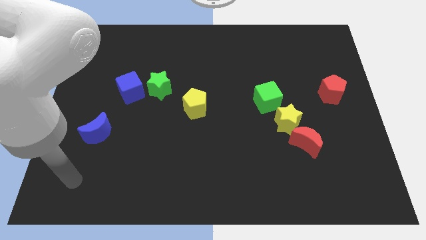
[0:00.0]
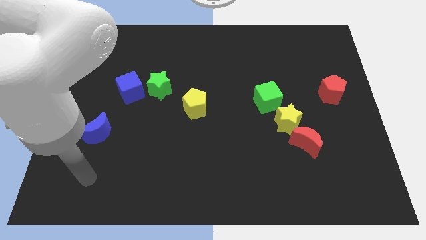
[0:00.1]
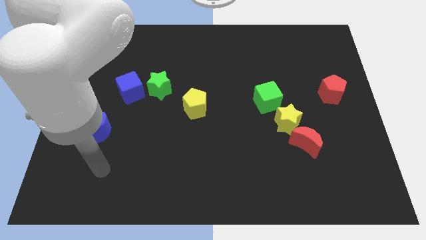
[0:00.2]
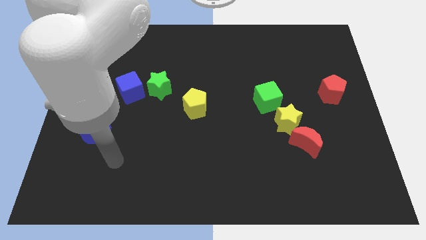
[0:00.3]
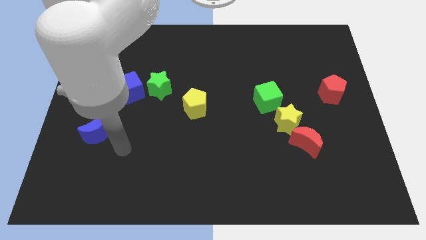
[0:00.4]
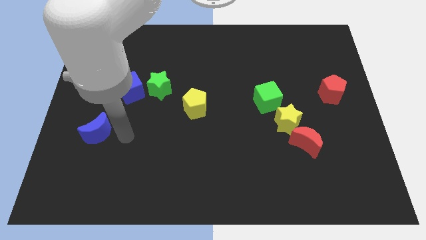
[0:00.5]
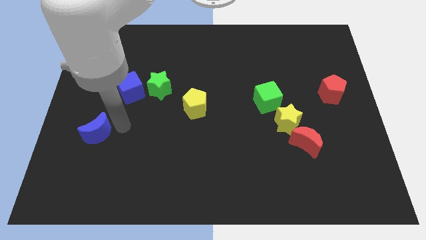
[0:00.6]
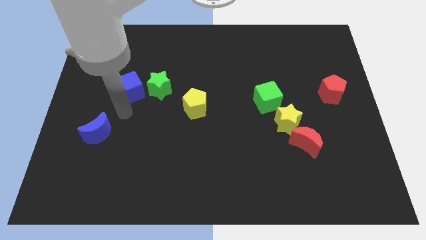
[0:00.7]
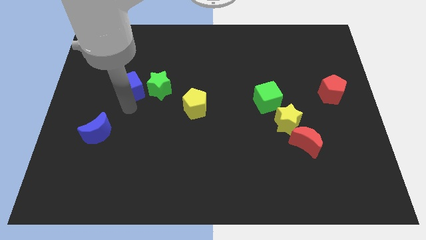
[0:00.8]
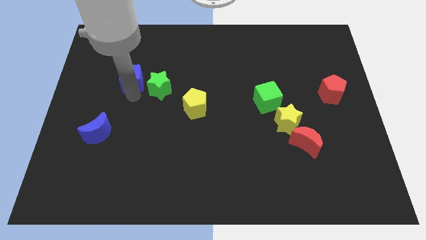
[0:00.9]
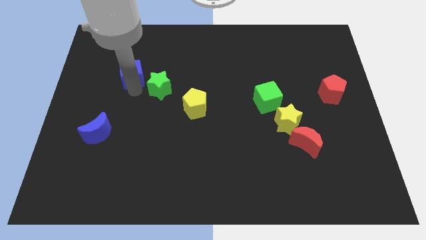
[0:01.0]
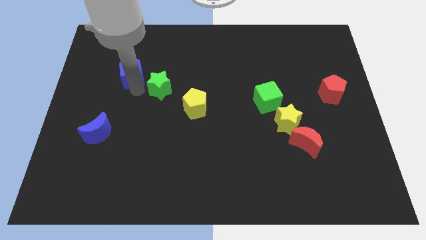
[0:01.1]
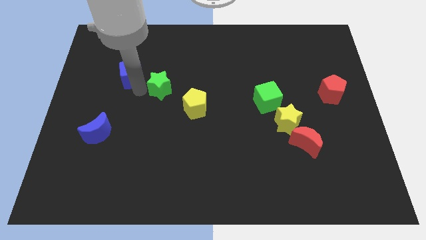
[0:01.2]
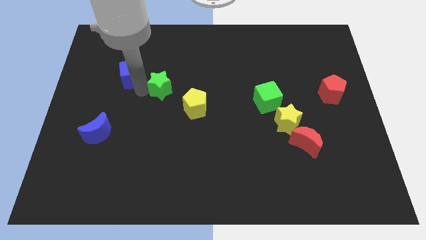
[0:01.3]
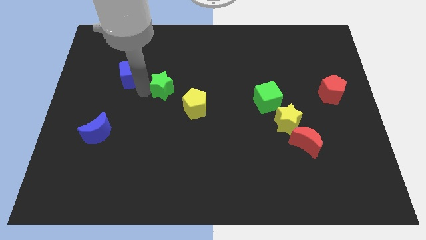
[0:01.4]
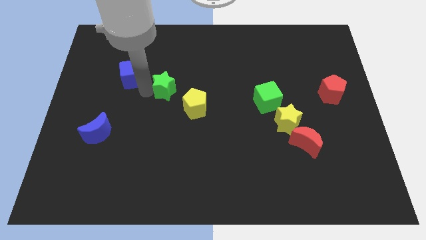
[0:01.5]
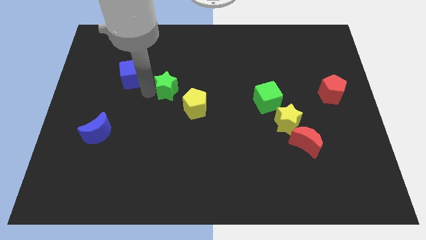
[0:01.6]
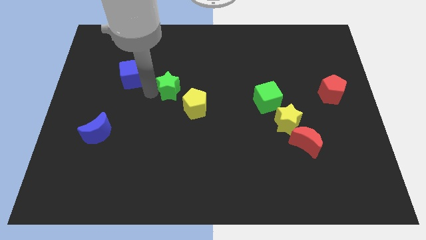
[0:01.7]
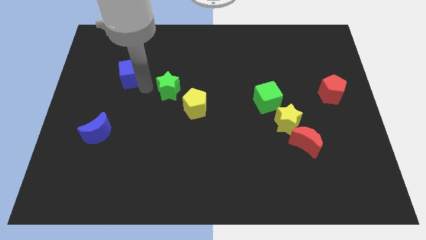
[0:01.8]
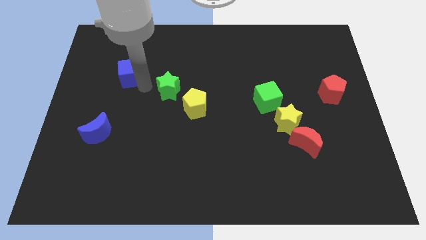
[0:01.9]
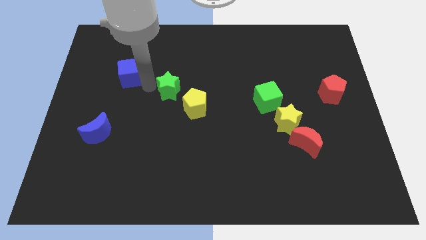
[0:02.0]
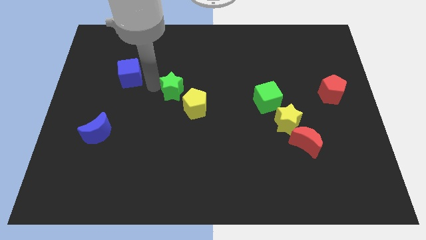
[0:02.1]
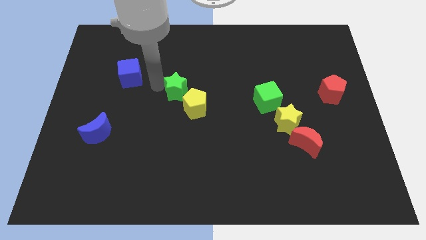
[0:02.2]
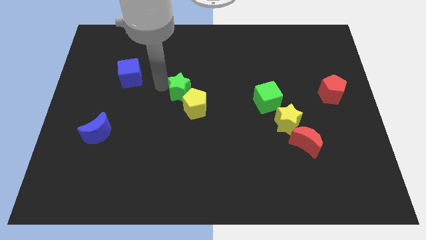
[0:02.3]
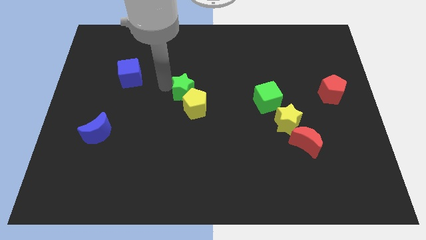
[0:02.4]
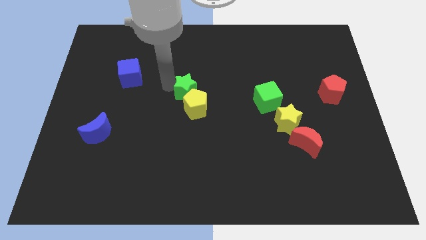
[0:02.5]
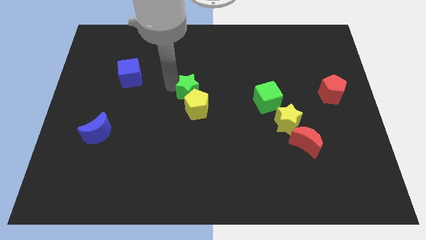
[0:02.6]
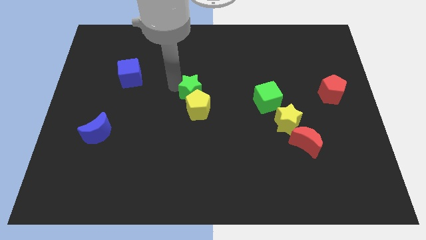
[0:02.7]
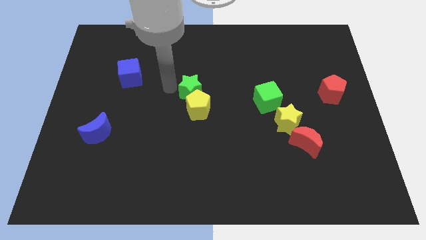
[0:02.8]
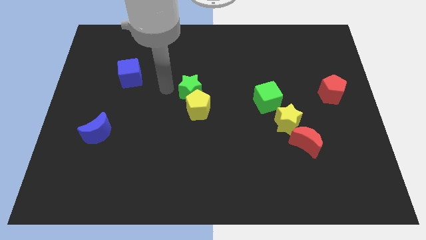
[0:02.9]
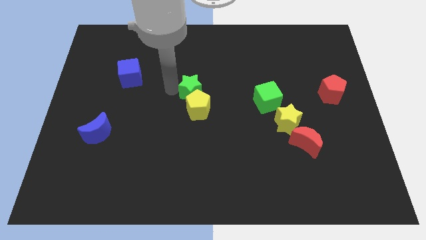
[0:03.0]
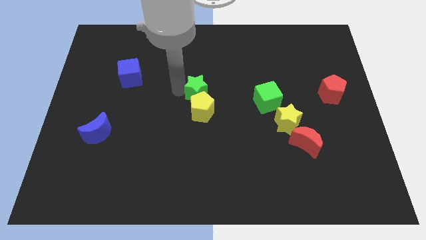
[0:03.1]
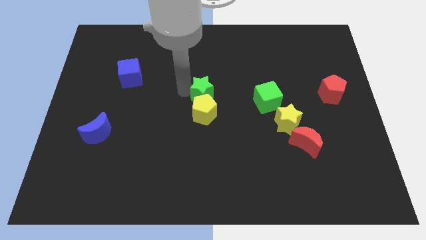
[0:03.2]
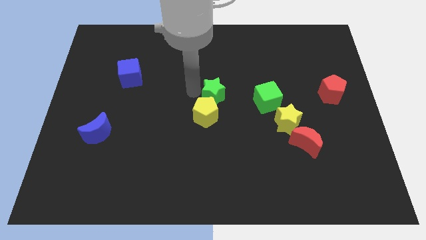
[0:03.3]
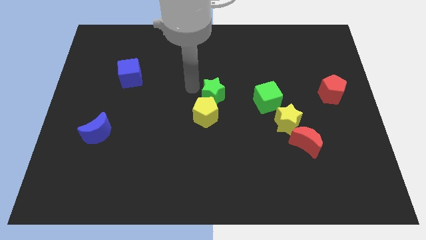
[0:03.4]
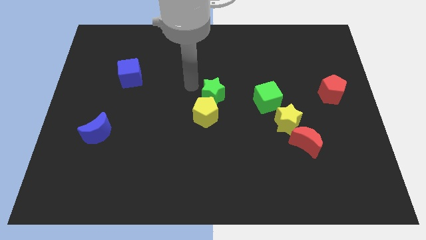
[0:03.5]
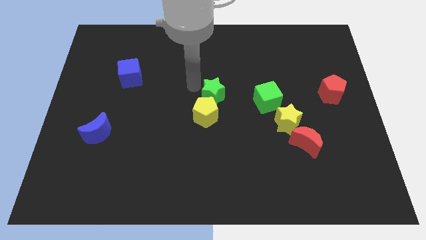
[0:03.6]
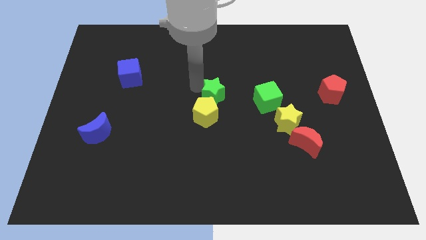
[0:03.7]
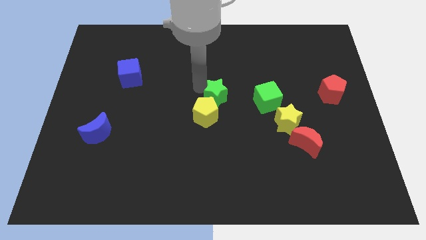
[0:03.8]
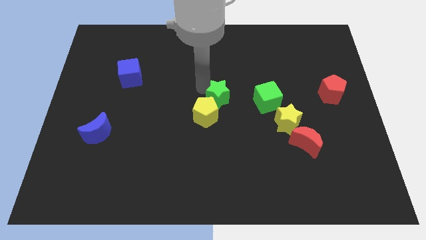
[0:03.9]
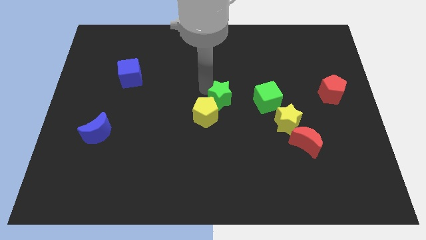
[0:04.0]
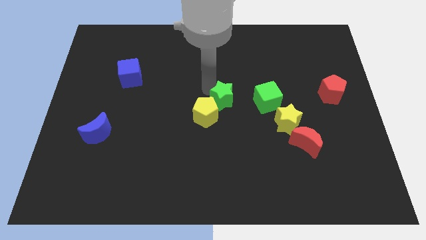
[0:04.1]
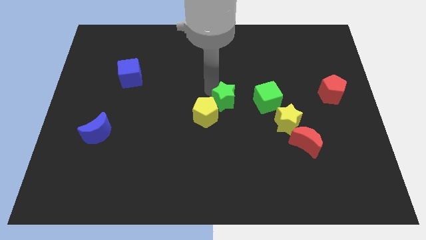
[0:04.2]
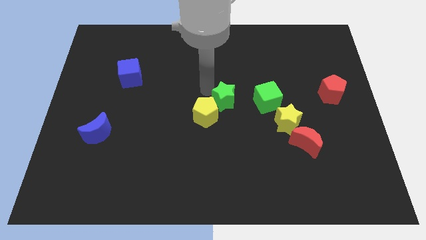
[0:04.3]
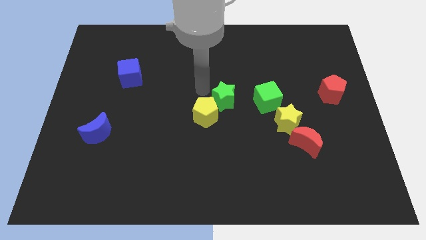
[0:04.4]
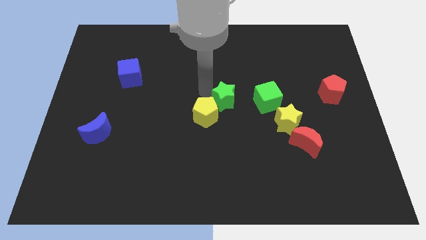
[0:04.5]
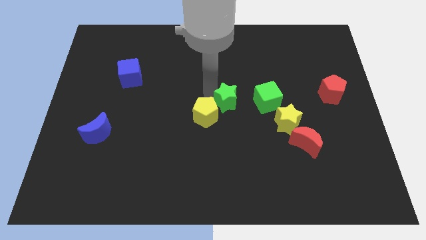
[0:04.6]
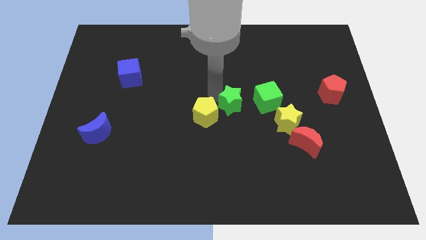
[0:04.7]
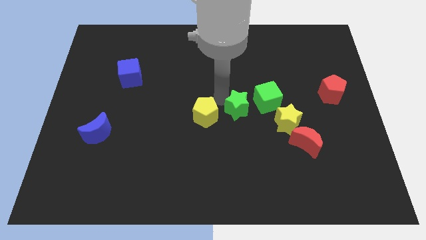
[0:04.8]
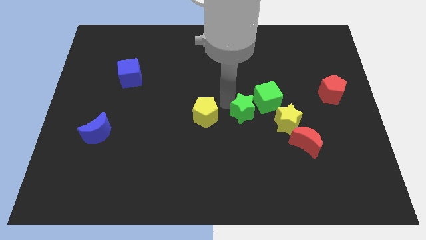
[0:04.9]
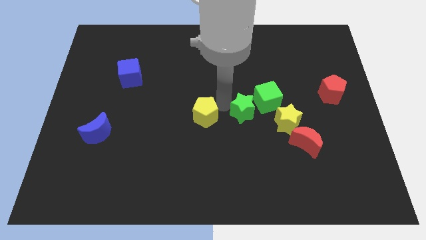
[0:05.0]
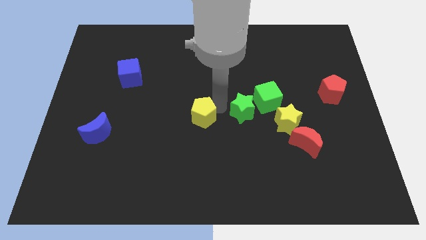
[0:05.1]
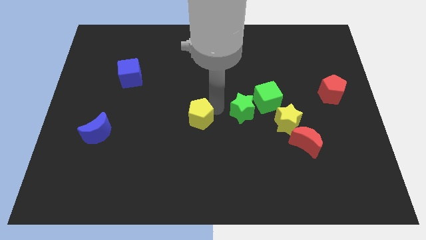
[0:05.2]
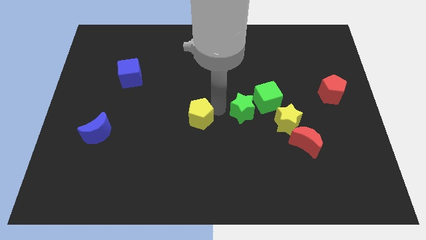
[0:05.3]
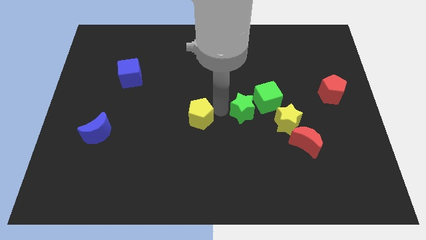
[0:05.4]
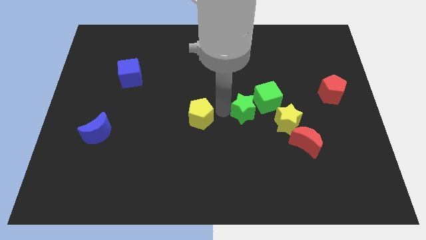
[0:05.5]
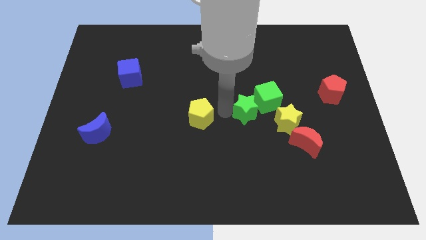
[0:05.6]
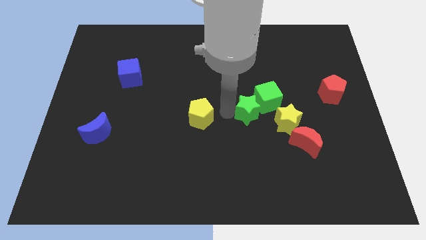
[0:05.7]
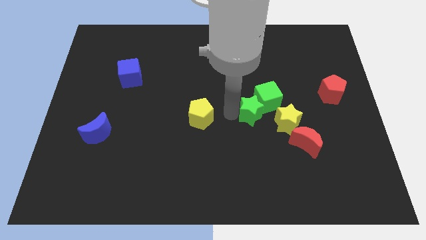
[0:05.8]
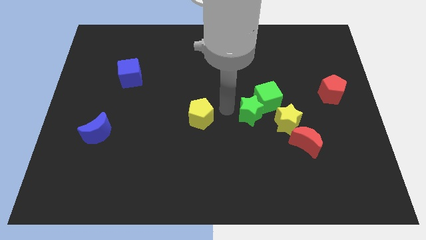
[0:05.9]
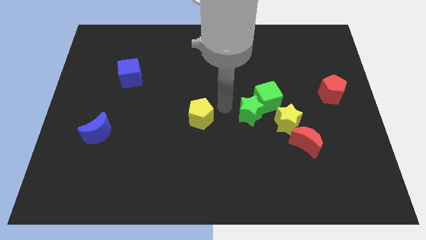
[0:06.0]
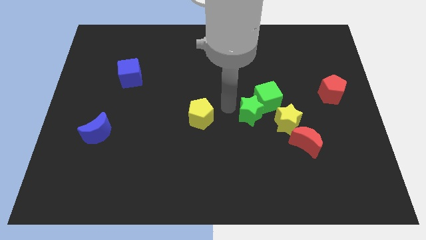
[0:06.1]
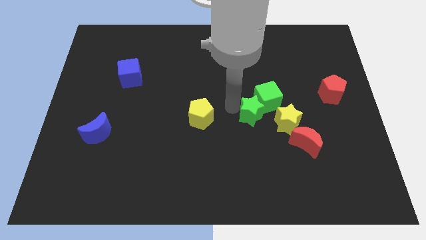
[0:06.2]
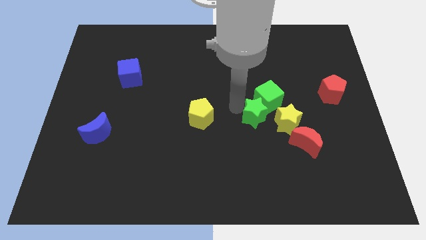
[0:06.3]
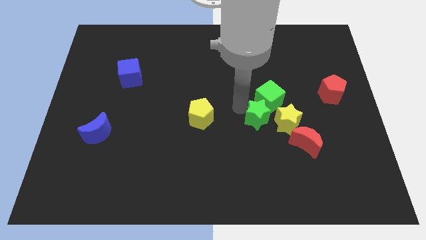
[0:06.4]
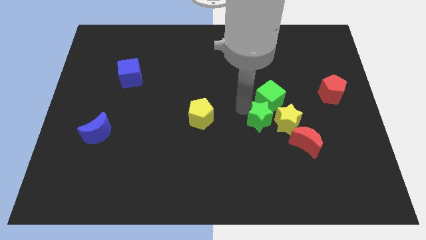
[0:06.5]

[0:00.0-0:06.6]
put the green star towards the yellow star

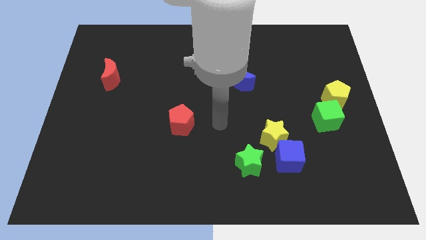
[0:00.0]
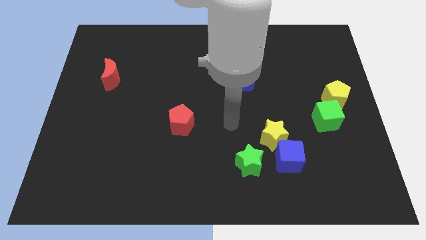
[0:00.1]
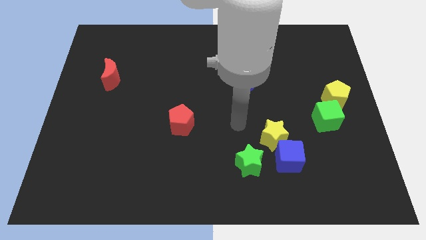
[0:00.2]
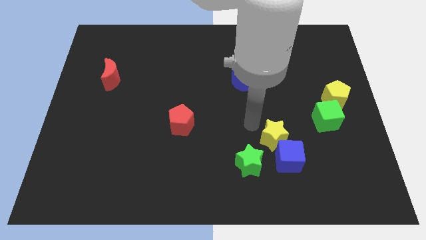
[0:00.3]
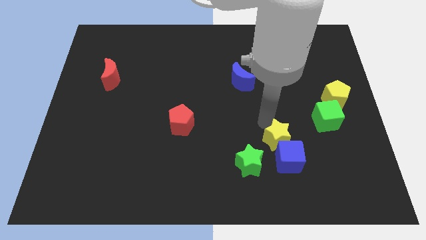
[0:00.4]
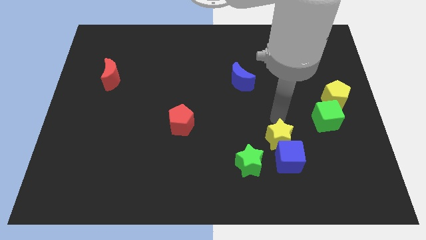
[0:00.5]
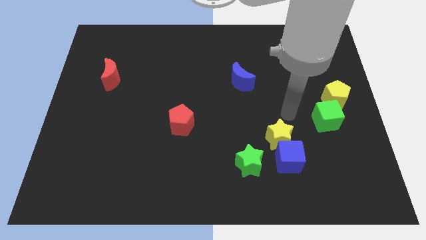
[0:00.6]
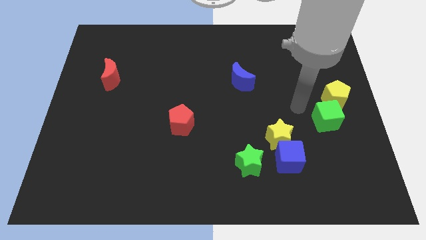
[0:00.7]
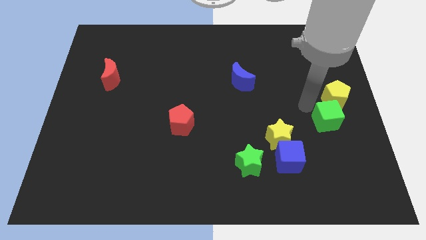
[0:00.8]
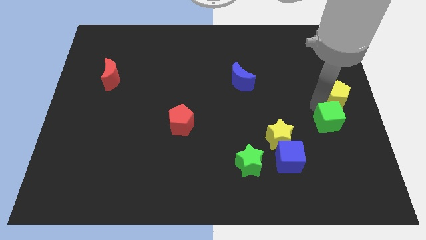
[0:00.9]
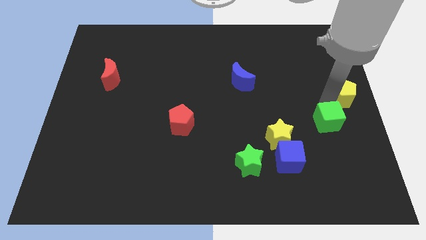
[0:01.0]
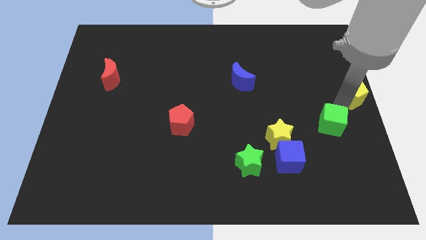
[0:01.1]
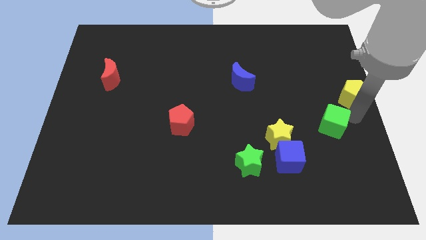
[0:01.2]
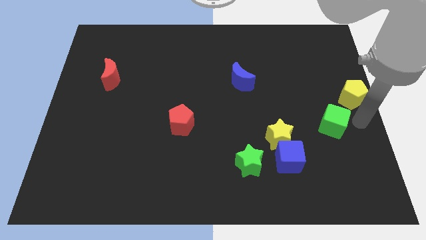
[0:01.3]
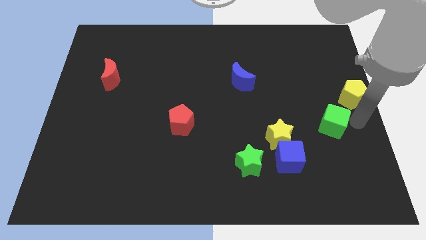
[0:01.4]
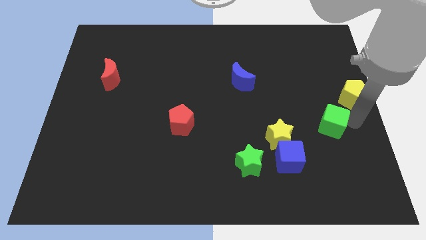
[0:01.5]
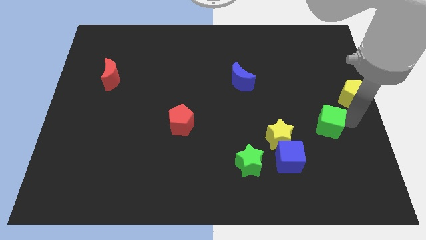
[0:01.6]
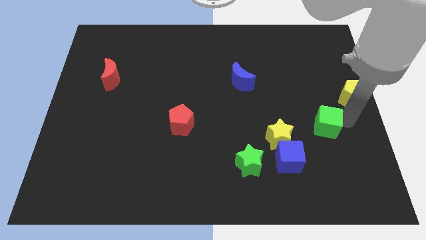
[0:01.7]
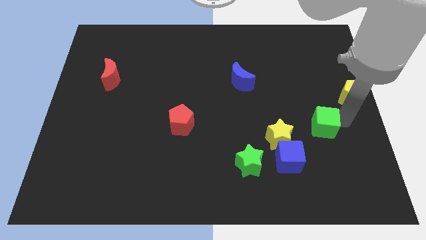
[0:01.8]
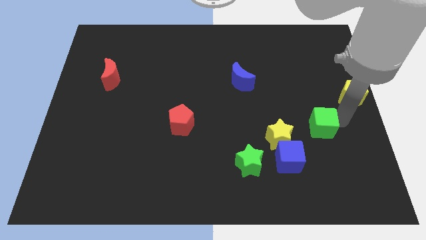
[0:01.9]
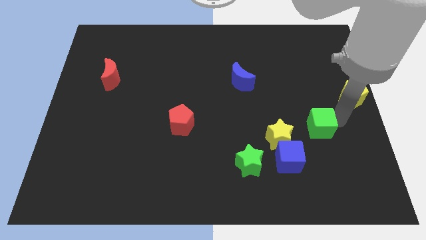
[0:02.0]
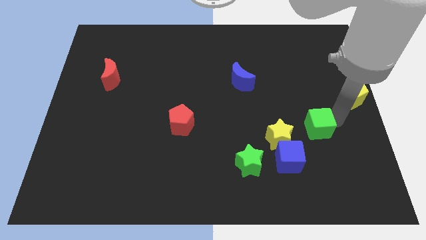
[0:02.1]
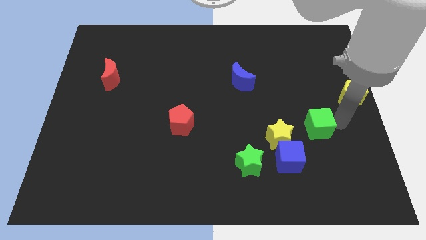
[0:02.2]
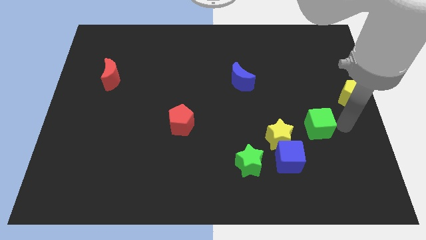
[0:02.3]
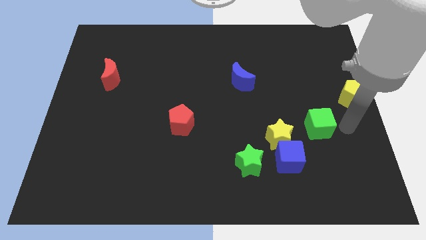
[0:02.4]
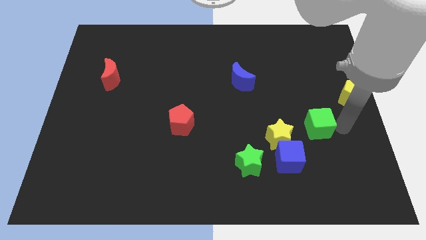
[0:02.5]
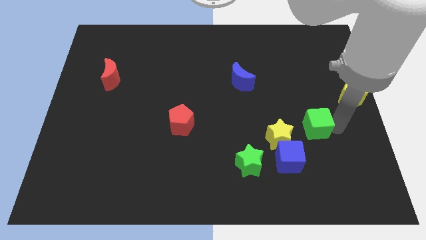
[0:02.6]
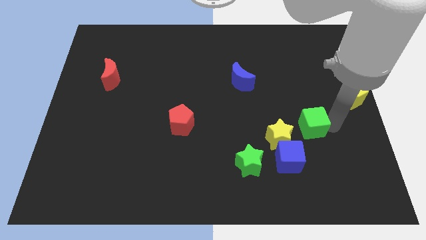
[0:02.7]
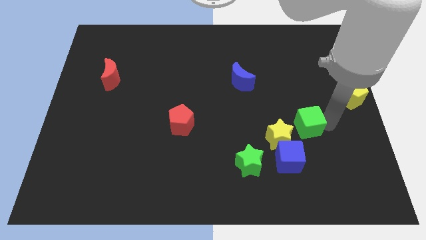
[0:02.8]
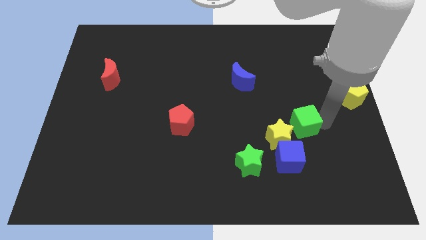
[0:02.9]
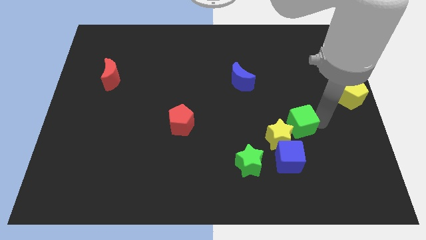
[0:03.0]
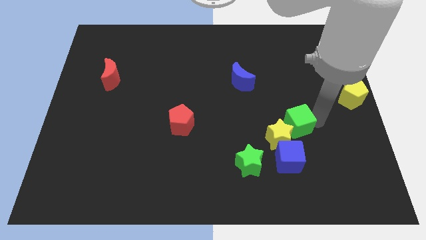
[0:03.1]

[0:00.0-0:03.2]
move the green cube to the yellow star
